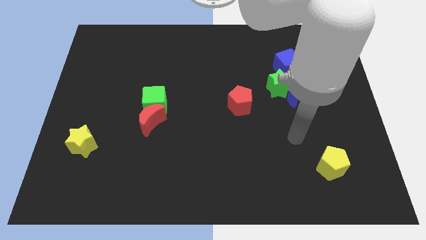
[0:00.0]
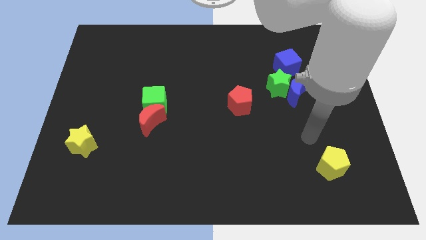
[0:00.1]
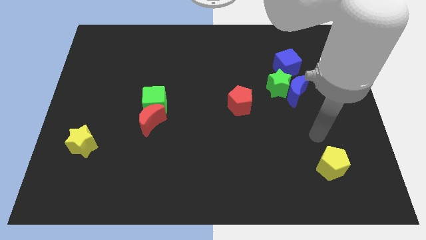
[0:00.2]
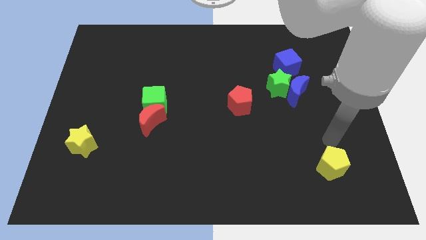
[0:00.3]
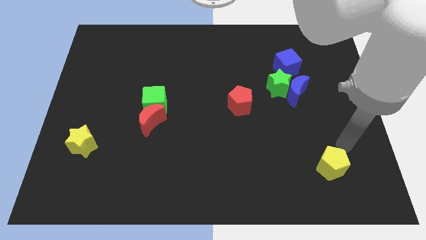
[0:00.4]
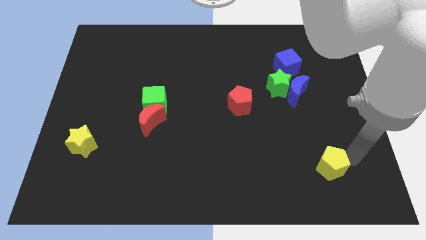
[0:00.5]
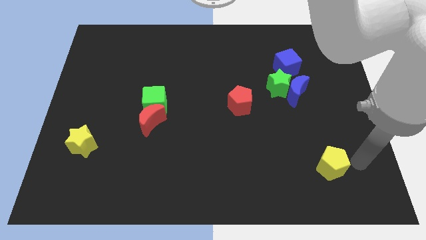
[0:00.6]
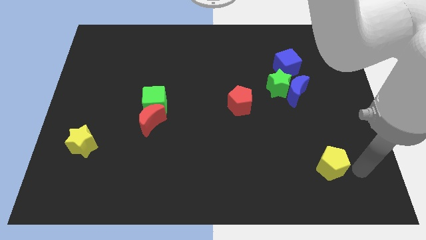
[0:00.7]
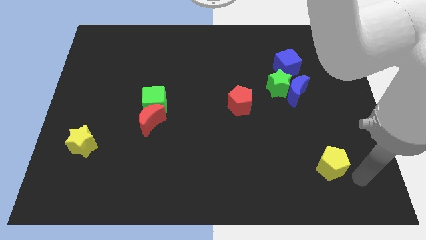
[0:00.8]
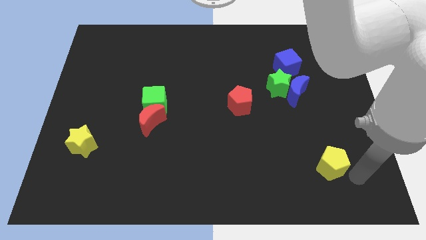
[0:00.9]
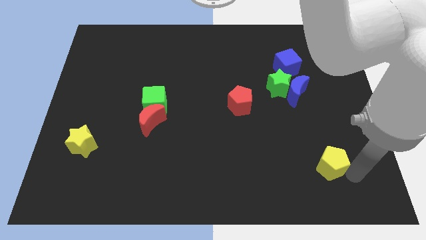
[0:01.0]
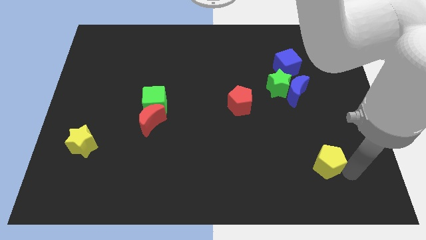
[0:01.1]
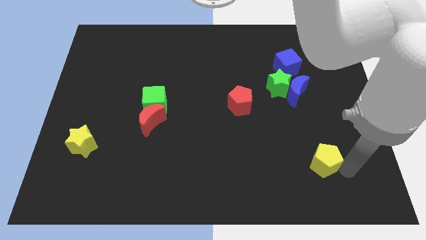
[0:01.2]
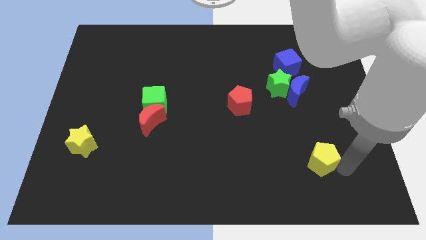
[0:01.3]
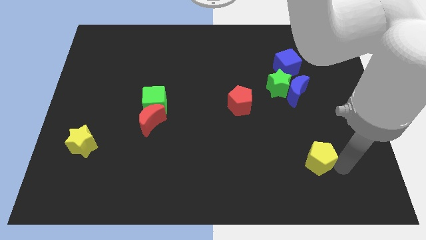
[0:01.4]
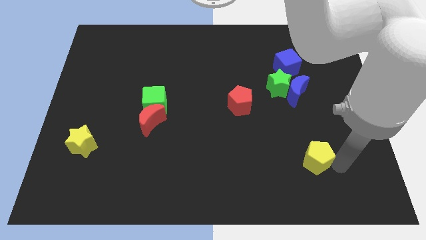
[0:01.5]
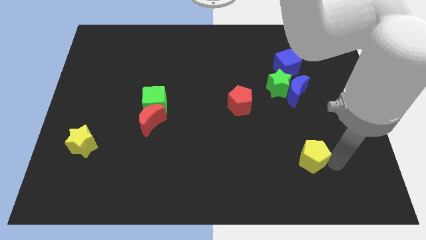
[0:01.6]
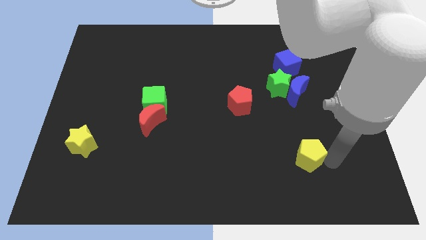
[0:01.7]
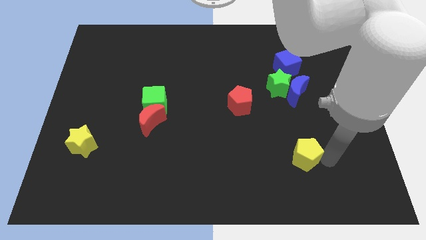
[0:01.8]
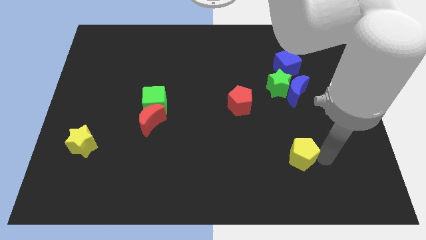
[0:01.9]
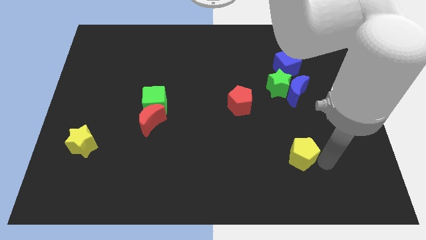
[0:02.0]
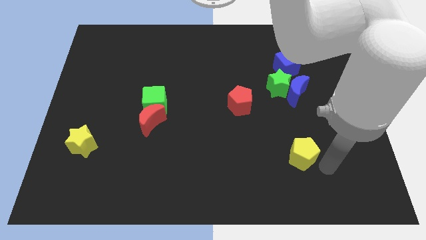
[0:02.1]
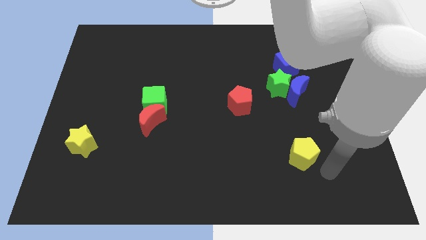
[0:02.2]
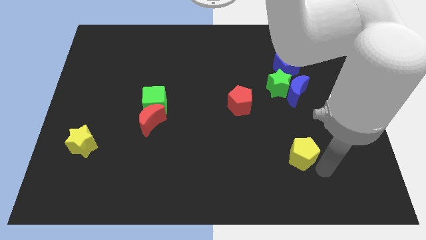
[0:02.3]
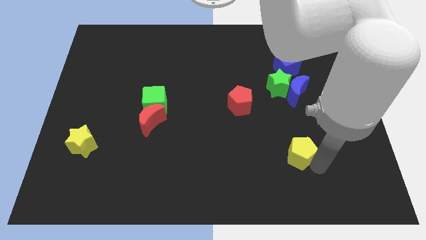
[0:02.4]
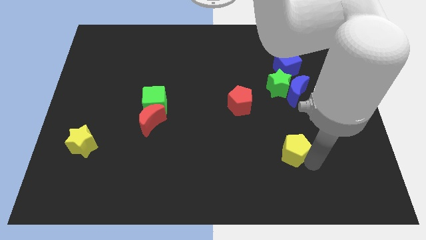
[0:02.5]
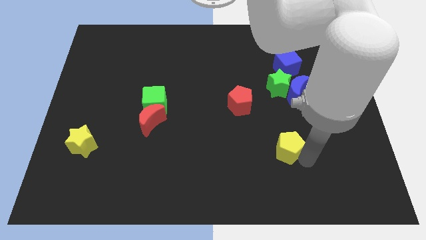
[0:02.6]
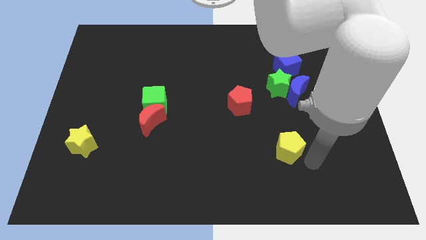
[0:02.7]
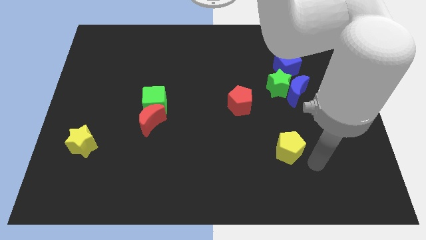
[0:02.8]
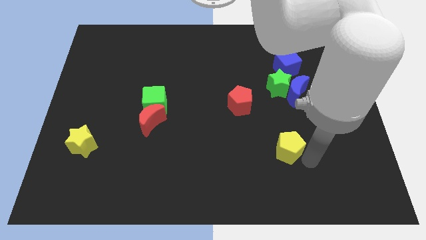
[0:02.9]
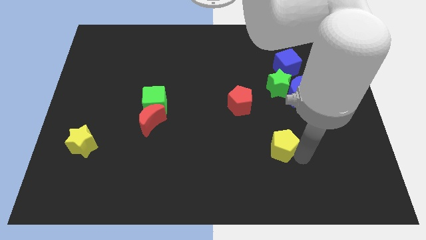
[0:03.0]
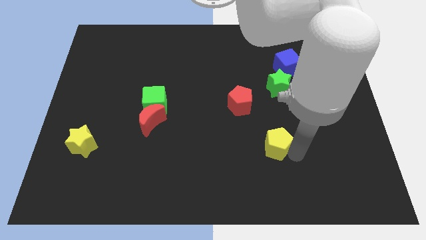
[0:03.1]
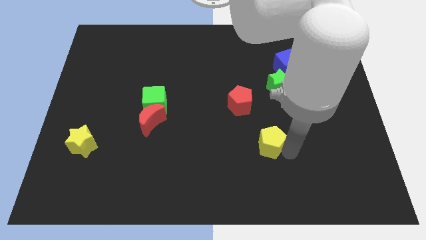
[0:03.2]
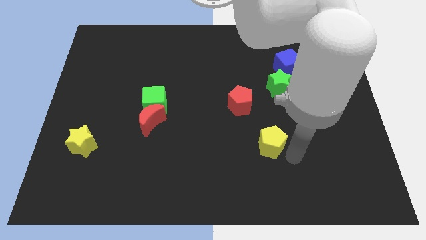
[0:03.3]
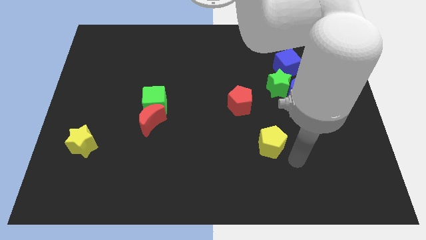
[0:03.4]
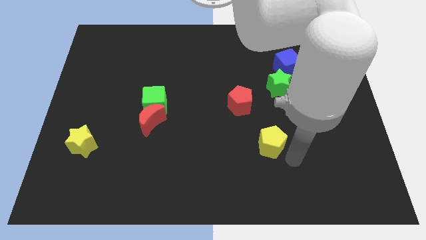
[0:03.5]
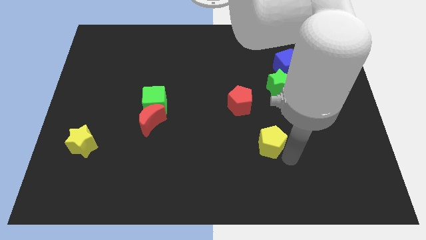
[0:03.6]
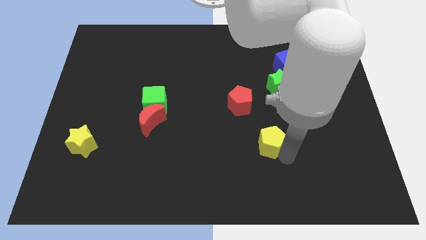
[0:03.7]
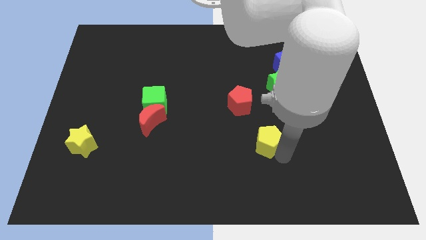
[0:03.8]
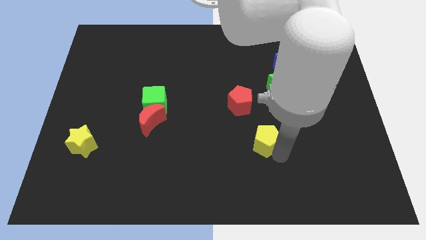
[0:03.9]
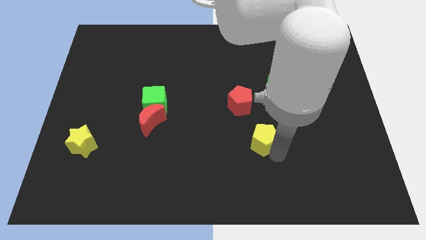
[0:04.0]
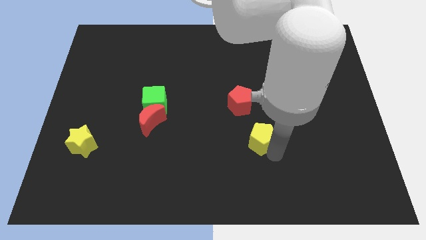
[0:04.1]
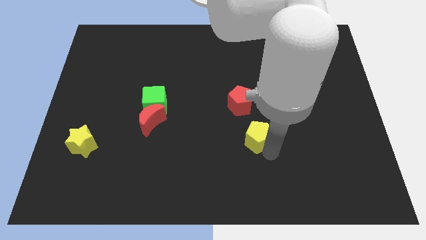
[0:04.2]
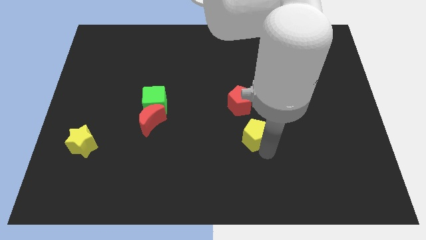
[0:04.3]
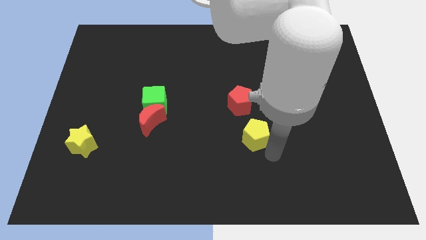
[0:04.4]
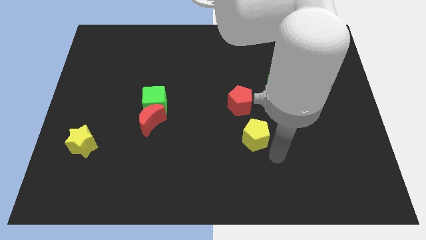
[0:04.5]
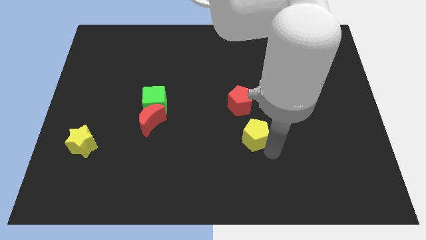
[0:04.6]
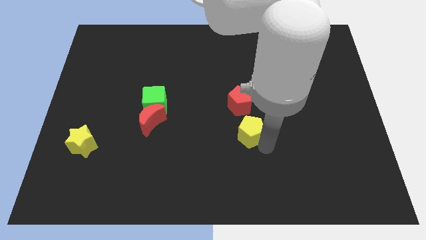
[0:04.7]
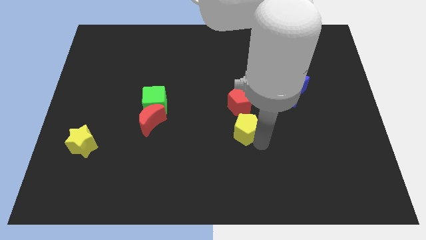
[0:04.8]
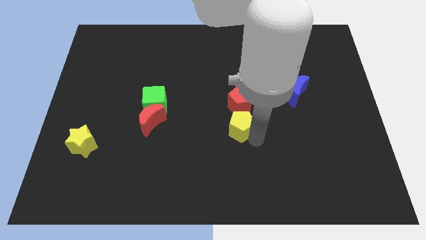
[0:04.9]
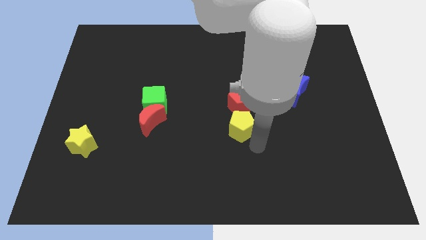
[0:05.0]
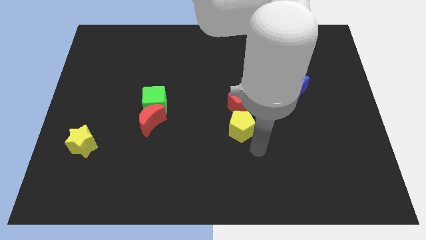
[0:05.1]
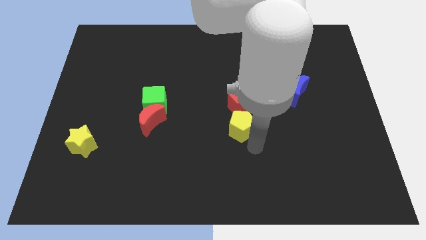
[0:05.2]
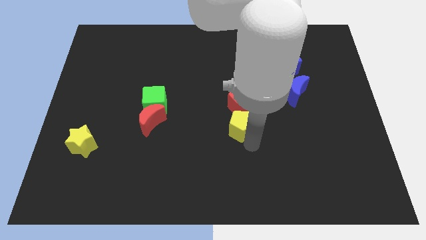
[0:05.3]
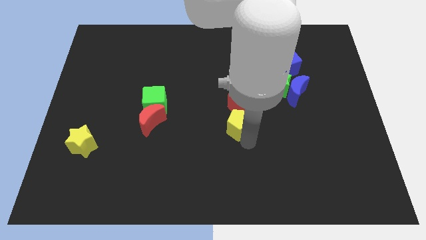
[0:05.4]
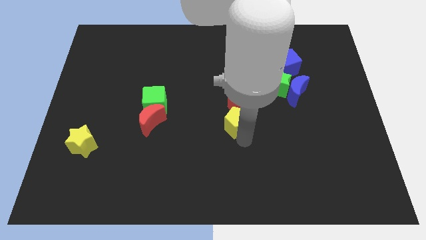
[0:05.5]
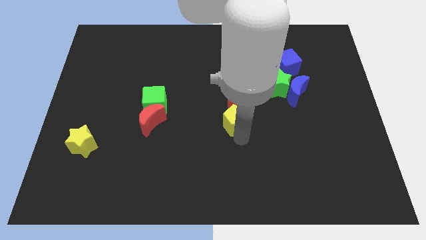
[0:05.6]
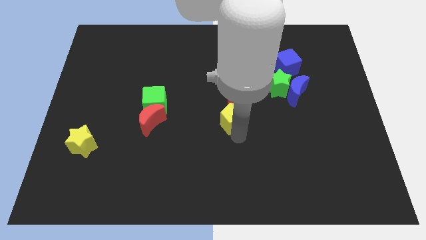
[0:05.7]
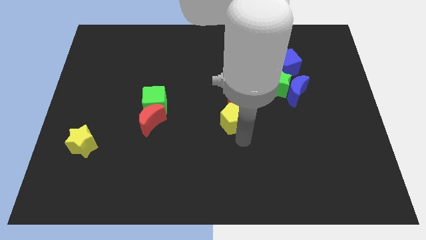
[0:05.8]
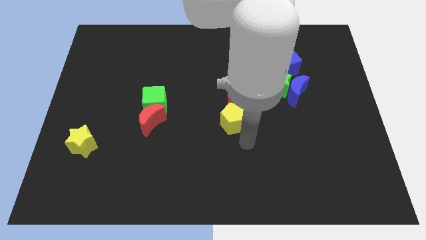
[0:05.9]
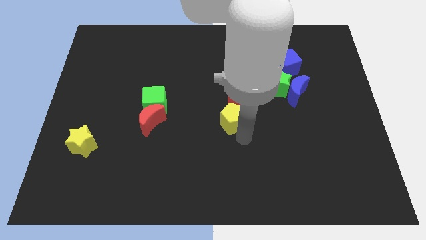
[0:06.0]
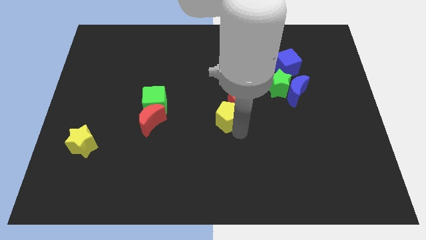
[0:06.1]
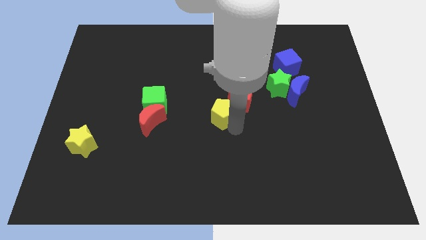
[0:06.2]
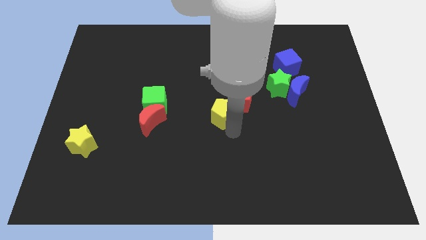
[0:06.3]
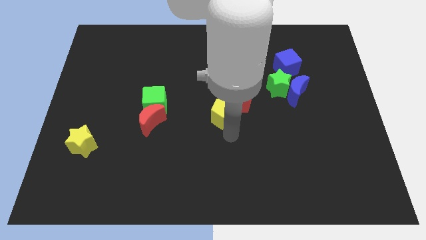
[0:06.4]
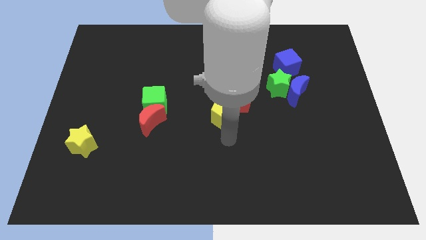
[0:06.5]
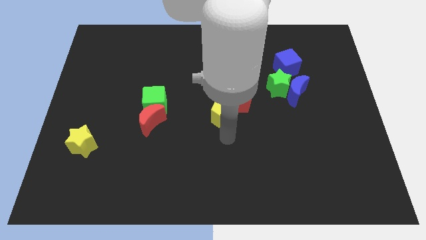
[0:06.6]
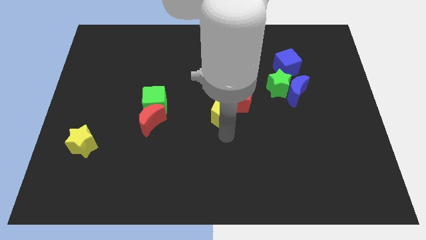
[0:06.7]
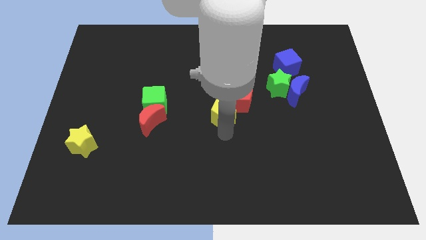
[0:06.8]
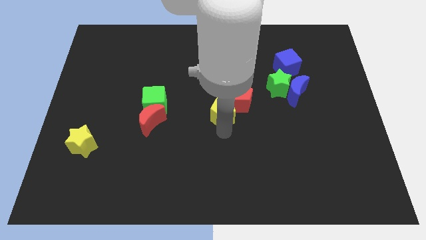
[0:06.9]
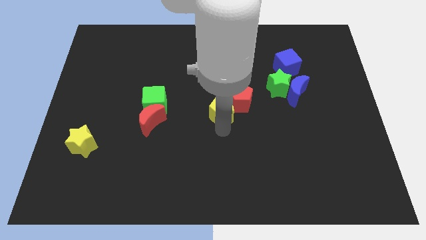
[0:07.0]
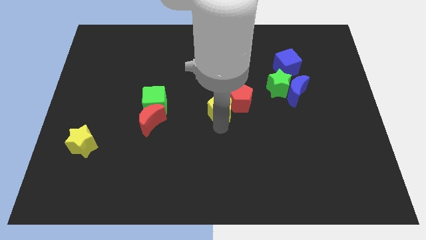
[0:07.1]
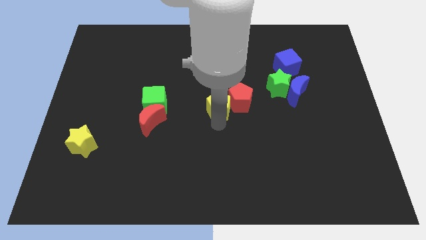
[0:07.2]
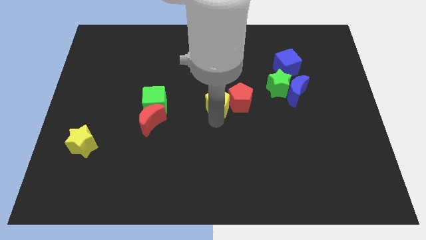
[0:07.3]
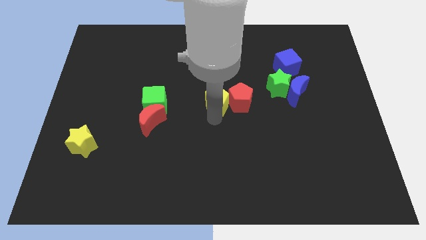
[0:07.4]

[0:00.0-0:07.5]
push the yellow pentagon to the top left of the red pentagon
